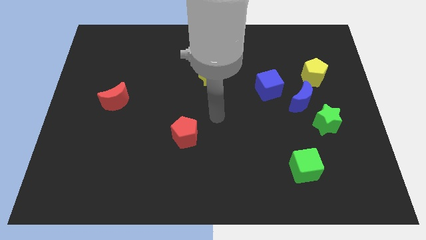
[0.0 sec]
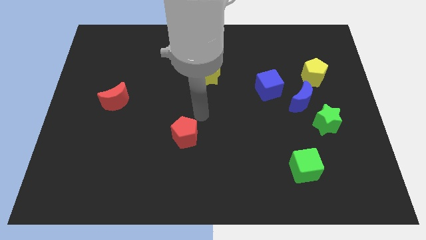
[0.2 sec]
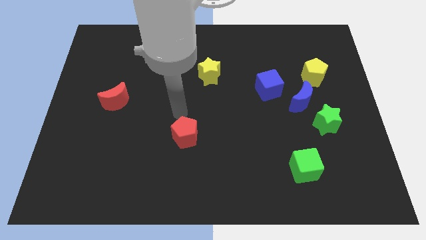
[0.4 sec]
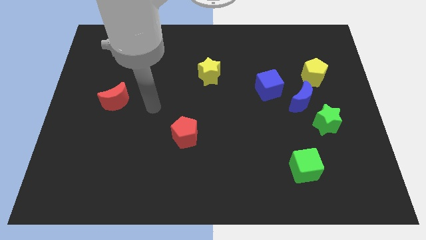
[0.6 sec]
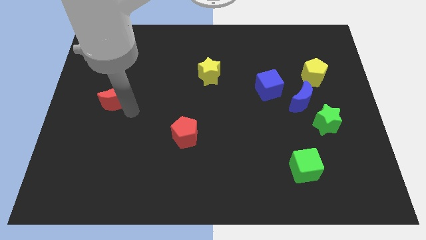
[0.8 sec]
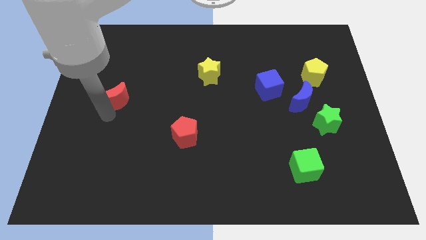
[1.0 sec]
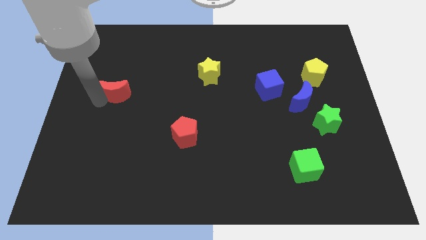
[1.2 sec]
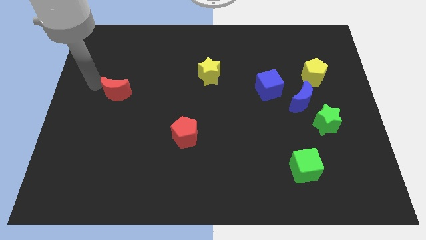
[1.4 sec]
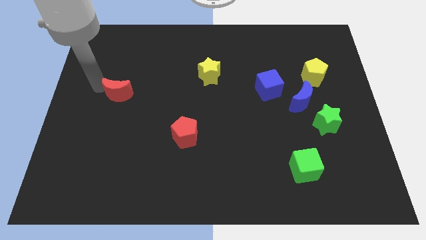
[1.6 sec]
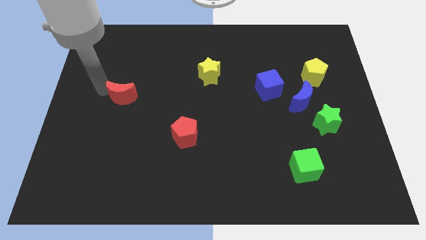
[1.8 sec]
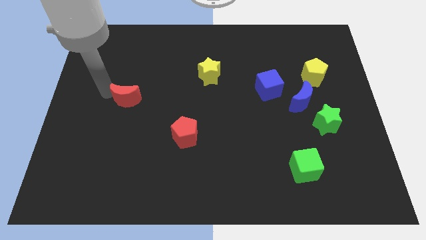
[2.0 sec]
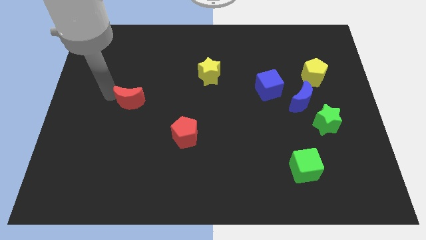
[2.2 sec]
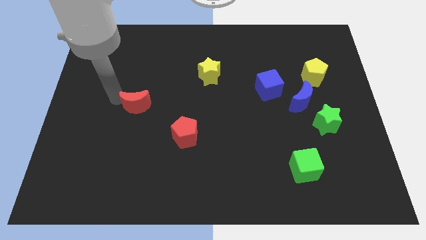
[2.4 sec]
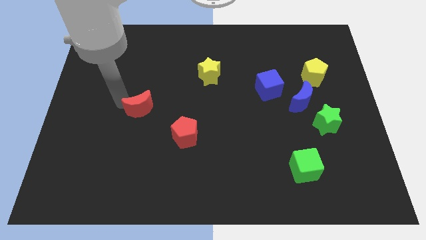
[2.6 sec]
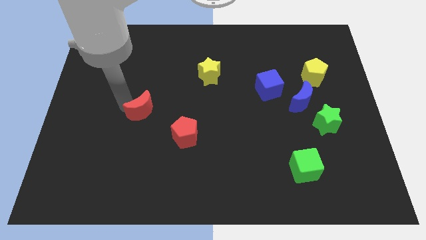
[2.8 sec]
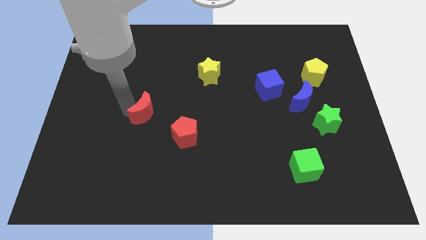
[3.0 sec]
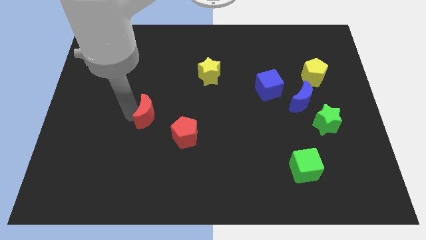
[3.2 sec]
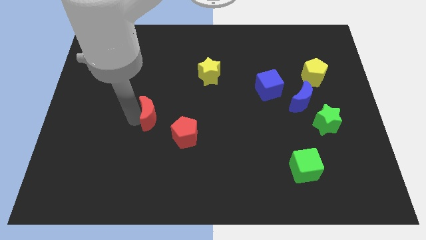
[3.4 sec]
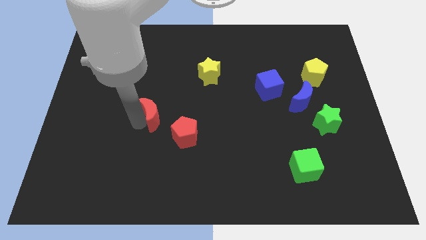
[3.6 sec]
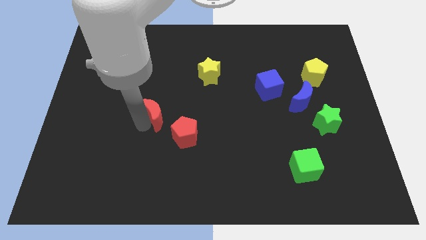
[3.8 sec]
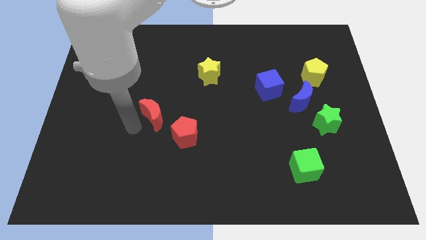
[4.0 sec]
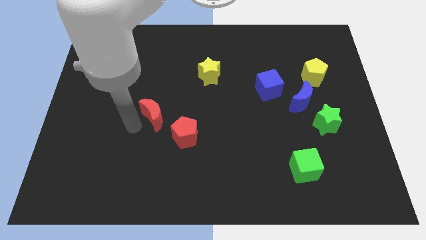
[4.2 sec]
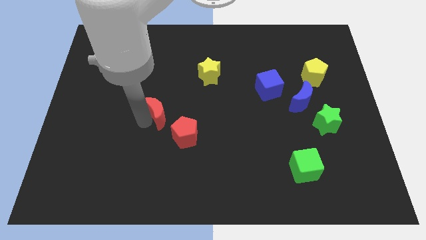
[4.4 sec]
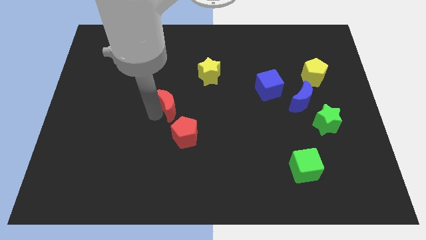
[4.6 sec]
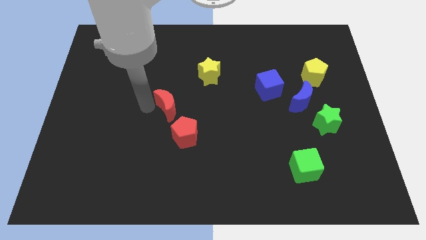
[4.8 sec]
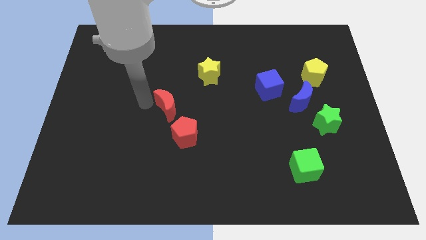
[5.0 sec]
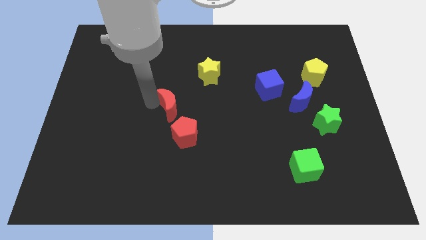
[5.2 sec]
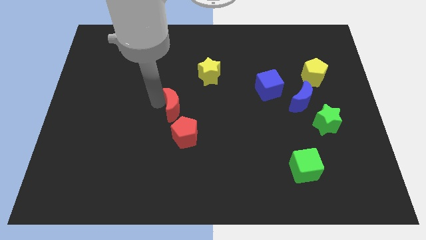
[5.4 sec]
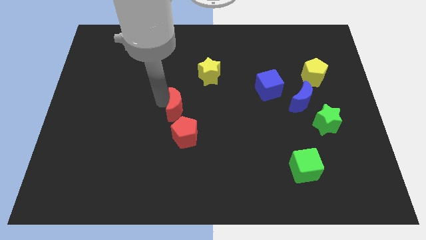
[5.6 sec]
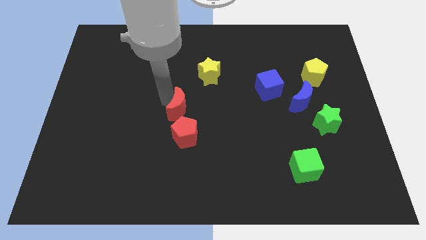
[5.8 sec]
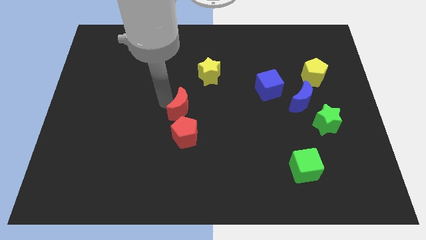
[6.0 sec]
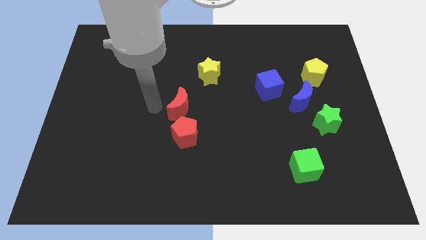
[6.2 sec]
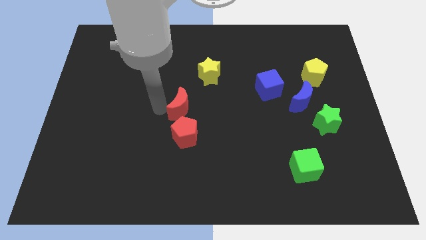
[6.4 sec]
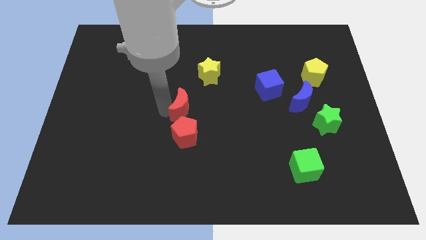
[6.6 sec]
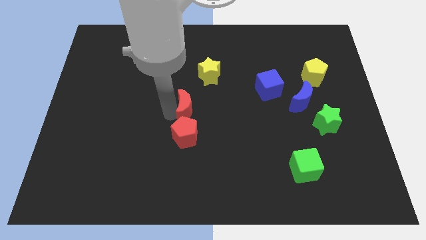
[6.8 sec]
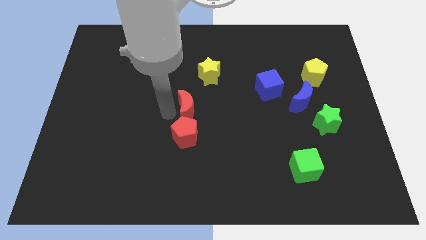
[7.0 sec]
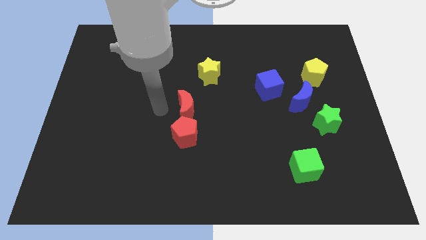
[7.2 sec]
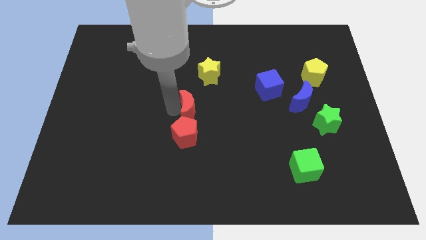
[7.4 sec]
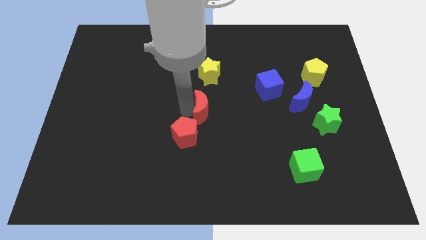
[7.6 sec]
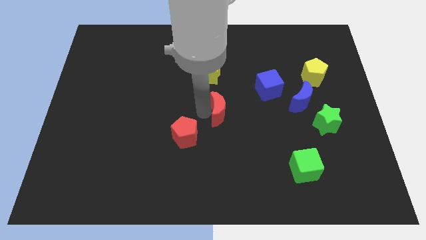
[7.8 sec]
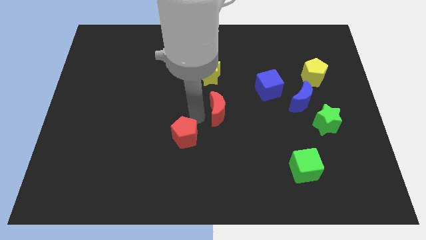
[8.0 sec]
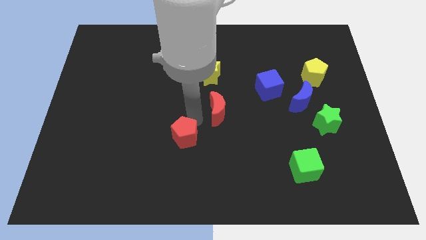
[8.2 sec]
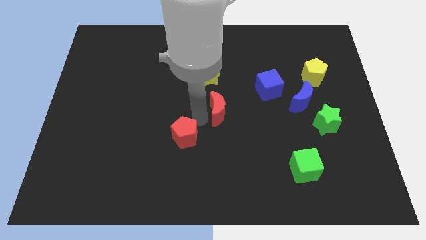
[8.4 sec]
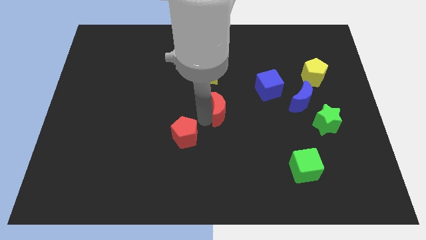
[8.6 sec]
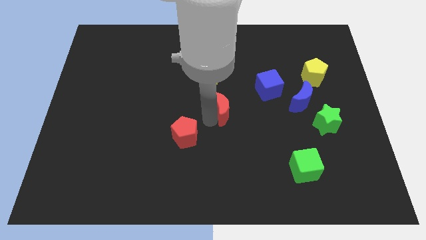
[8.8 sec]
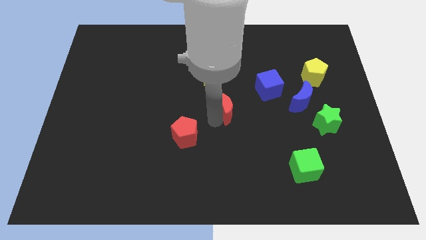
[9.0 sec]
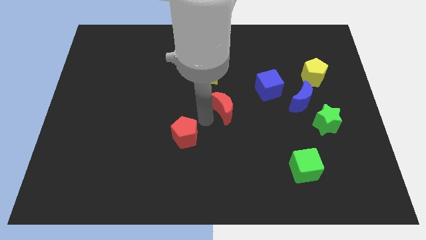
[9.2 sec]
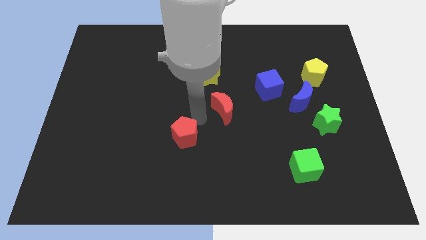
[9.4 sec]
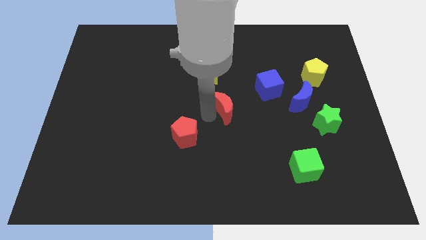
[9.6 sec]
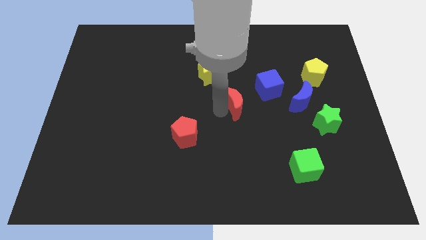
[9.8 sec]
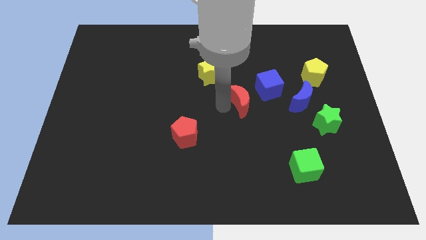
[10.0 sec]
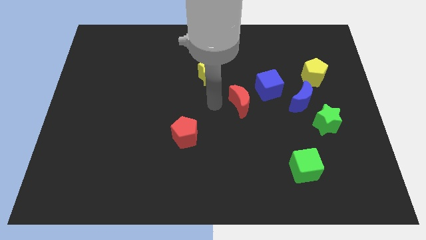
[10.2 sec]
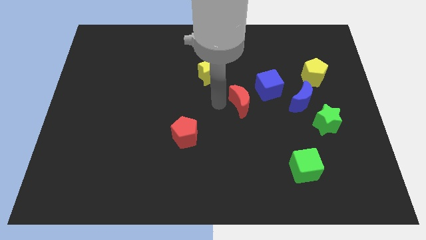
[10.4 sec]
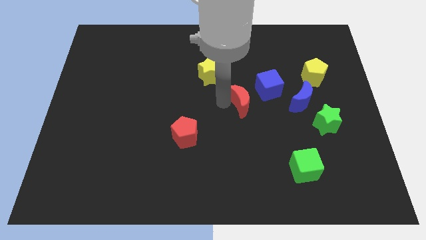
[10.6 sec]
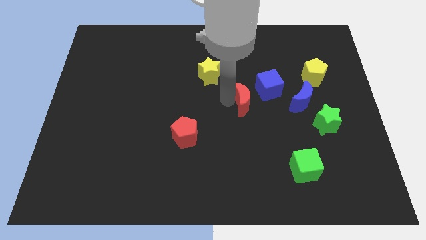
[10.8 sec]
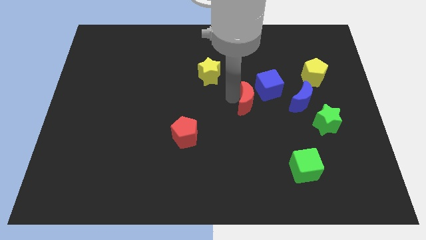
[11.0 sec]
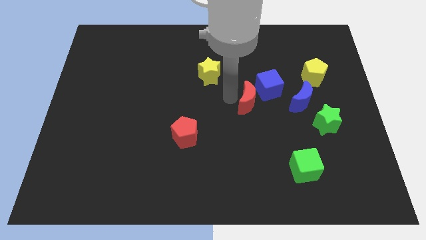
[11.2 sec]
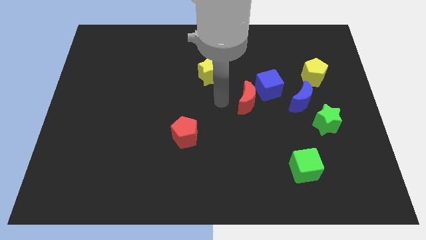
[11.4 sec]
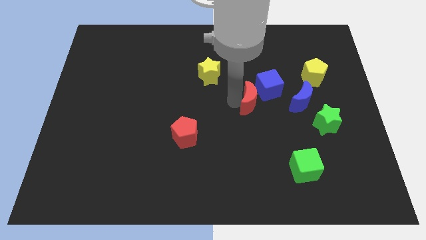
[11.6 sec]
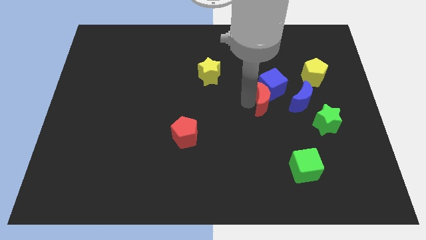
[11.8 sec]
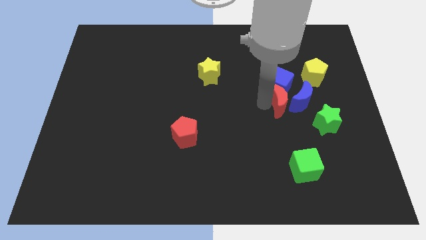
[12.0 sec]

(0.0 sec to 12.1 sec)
slide the red moon towards the blue moon

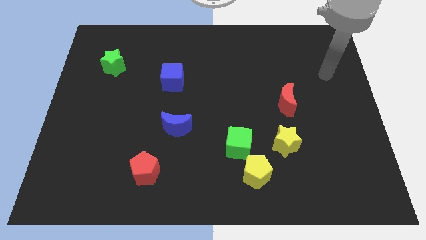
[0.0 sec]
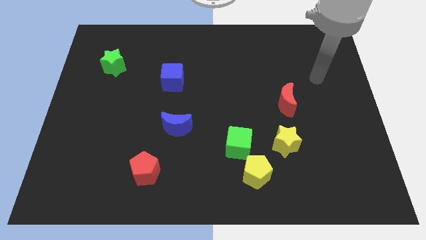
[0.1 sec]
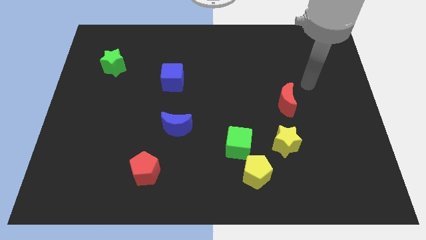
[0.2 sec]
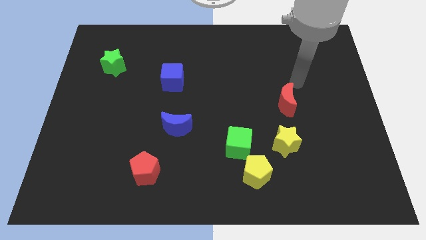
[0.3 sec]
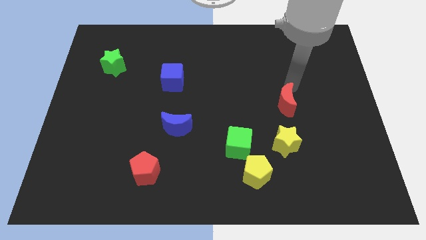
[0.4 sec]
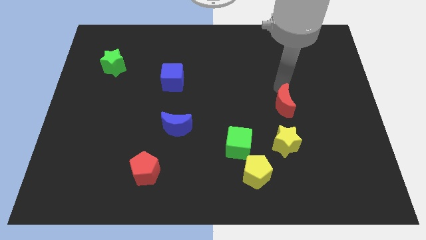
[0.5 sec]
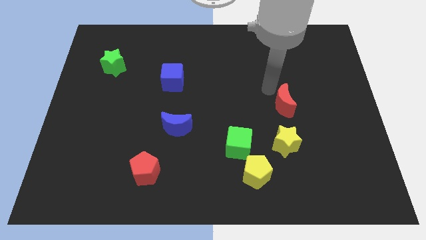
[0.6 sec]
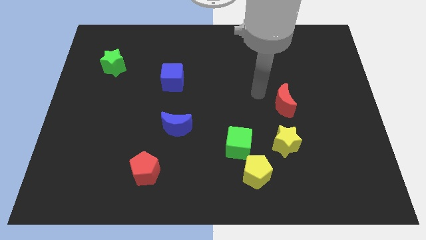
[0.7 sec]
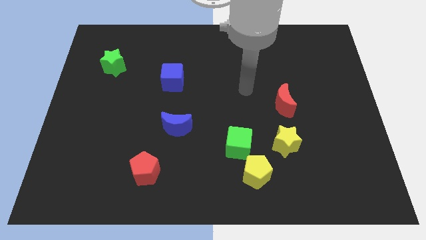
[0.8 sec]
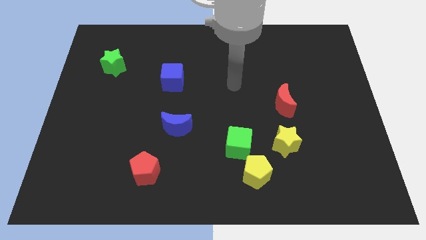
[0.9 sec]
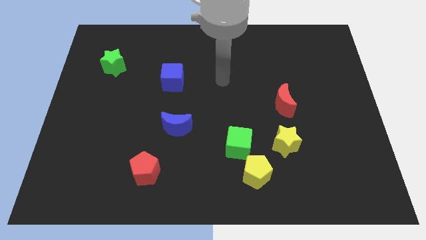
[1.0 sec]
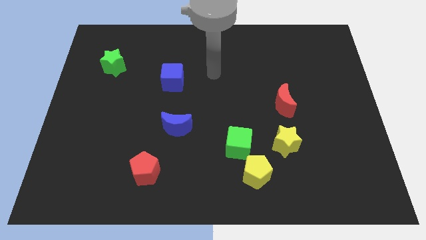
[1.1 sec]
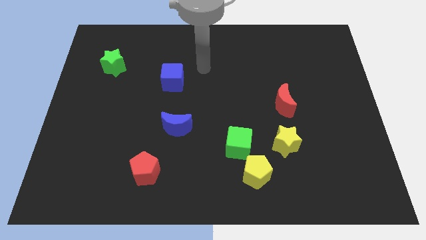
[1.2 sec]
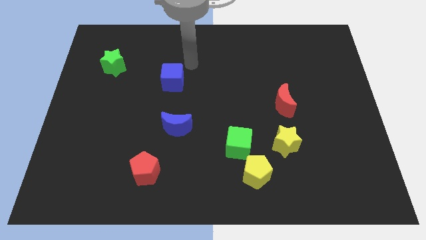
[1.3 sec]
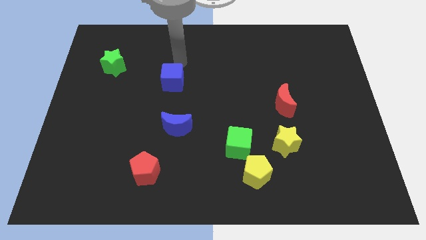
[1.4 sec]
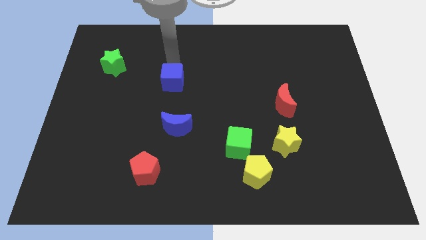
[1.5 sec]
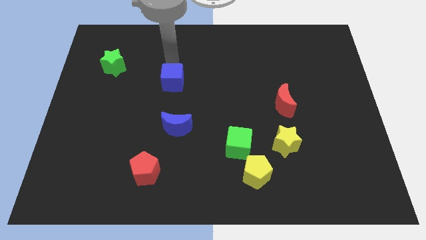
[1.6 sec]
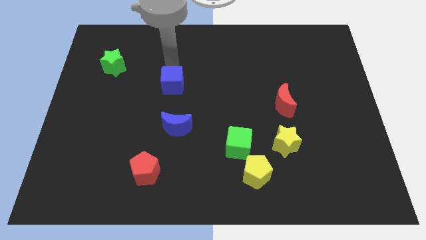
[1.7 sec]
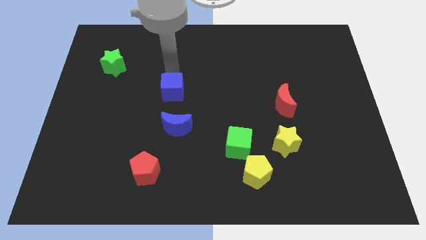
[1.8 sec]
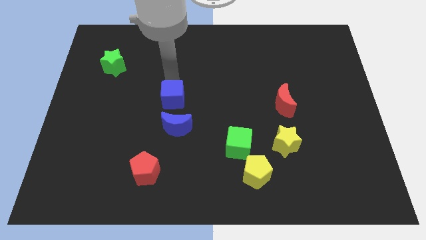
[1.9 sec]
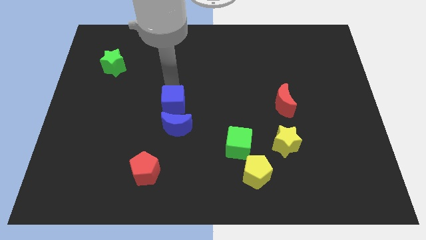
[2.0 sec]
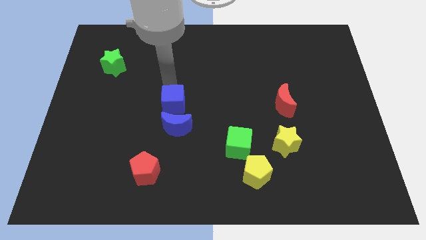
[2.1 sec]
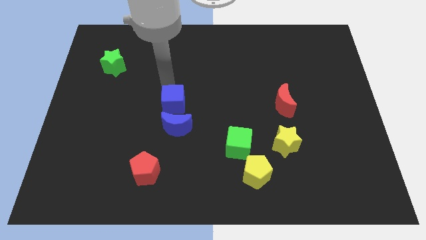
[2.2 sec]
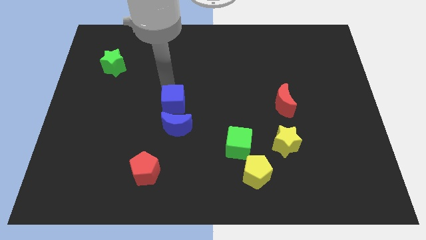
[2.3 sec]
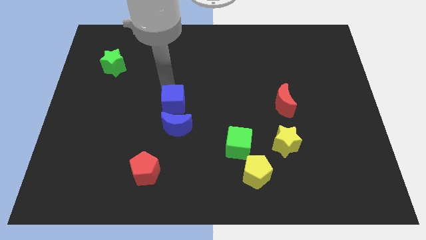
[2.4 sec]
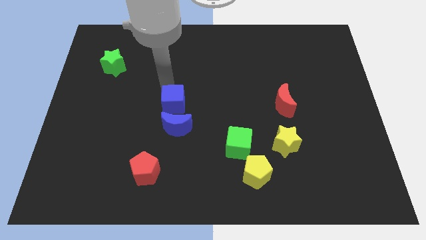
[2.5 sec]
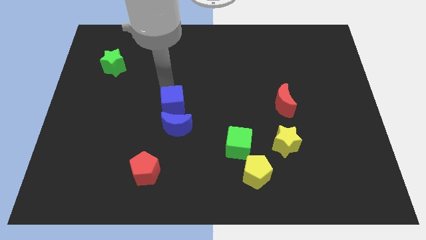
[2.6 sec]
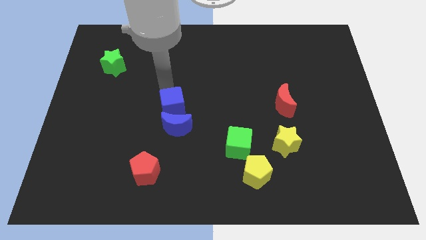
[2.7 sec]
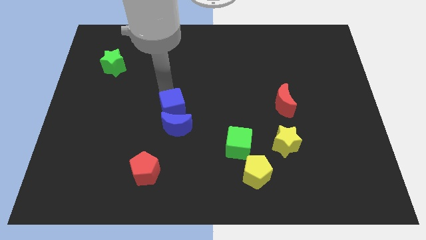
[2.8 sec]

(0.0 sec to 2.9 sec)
put the blue cube next to the blue moon
